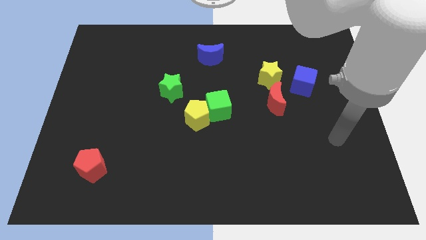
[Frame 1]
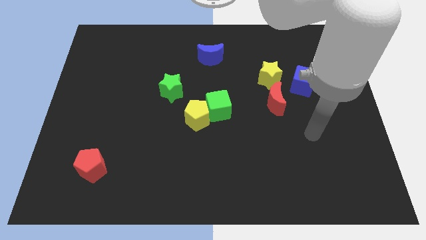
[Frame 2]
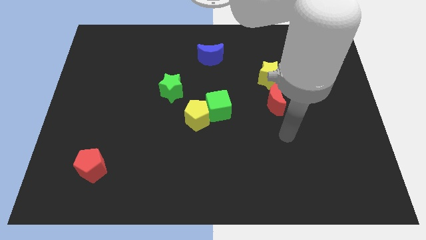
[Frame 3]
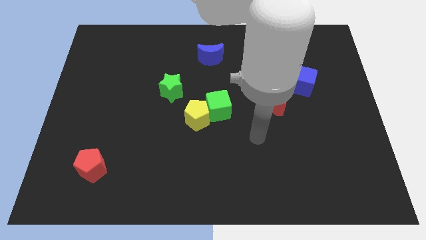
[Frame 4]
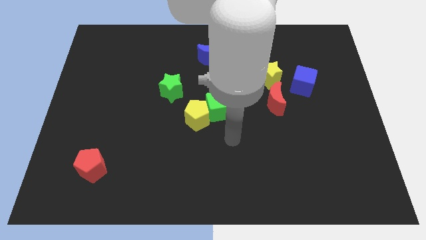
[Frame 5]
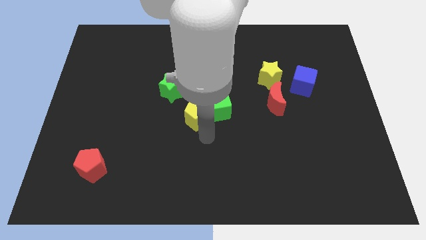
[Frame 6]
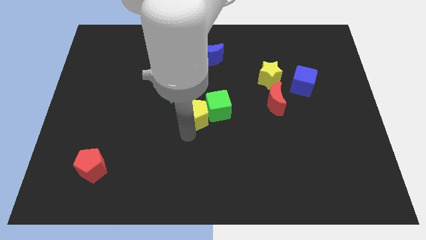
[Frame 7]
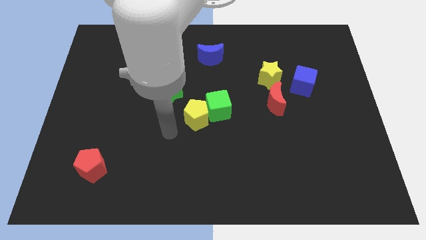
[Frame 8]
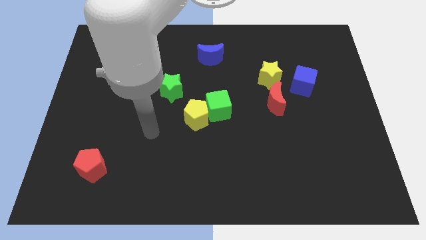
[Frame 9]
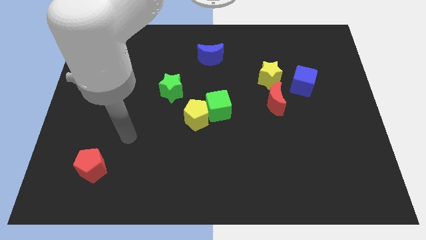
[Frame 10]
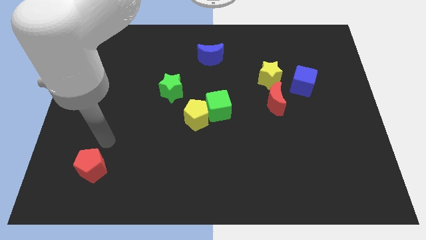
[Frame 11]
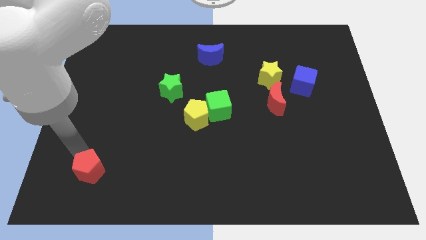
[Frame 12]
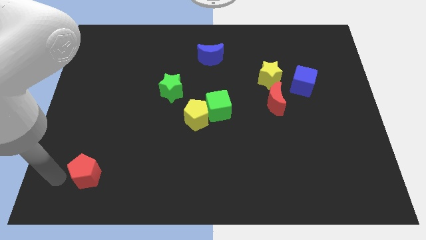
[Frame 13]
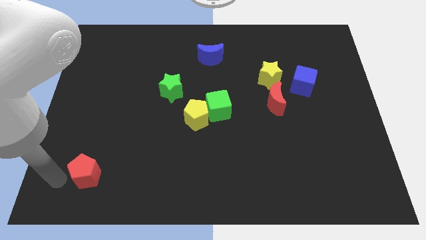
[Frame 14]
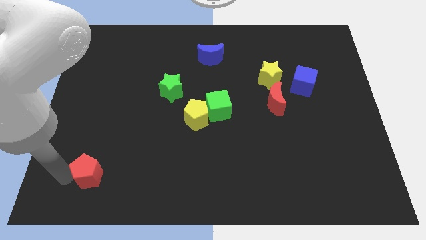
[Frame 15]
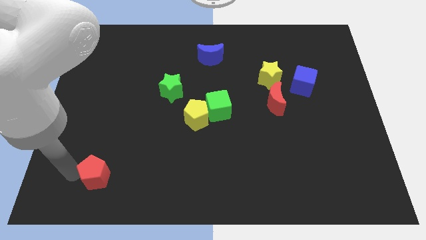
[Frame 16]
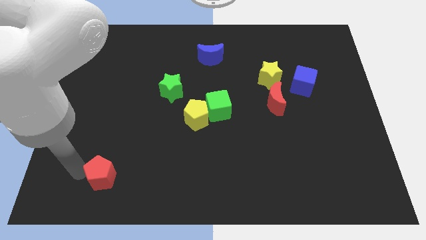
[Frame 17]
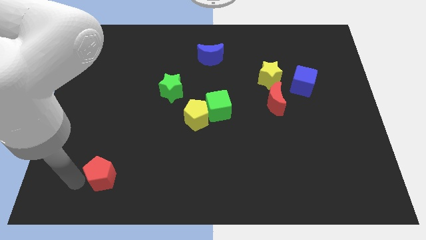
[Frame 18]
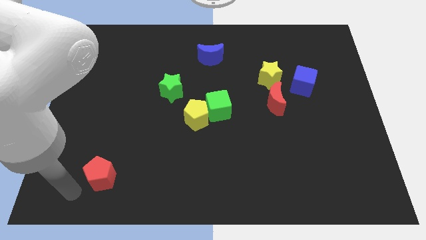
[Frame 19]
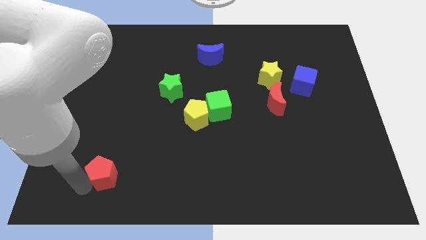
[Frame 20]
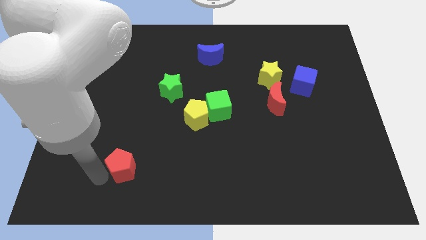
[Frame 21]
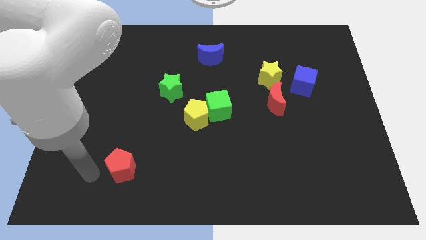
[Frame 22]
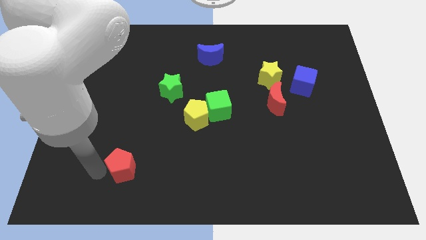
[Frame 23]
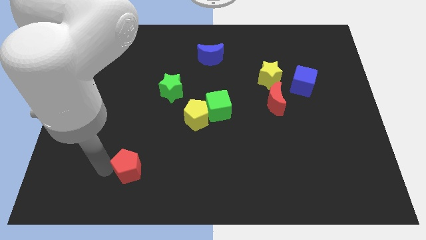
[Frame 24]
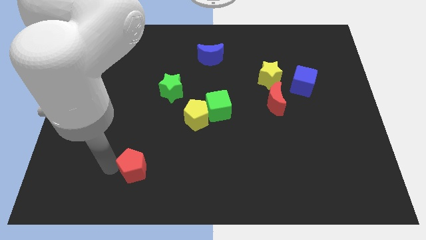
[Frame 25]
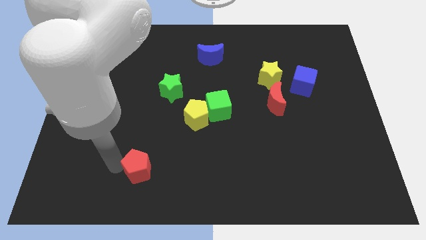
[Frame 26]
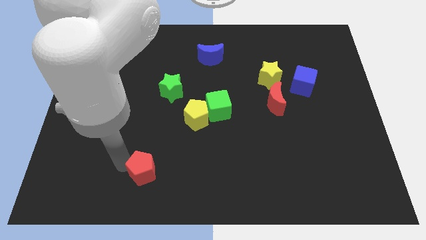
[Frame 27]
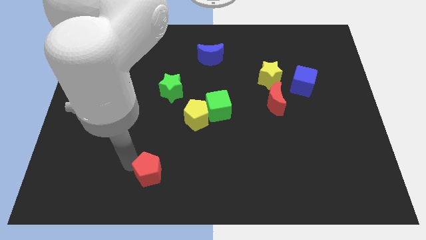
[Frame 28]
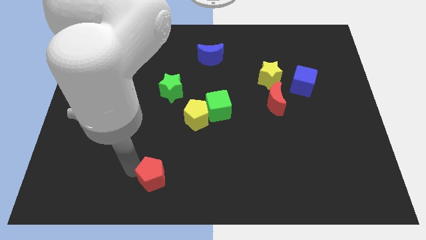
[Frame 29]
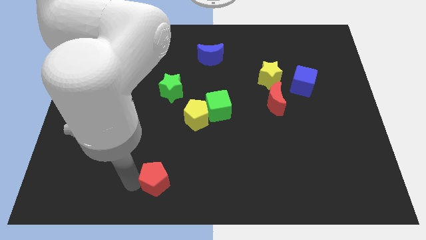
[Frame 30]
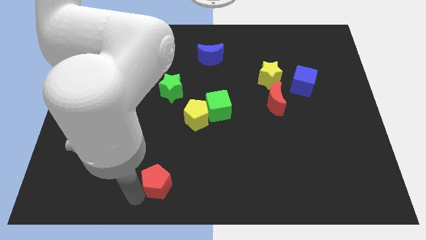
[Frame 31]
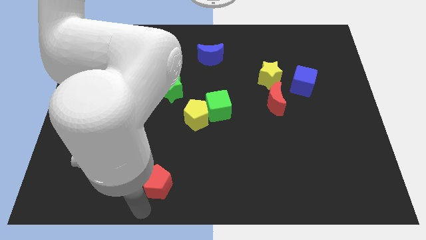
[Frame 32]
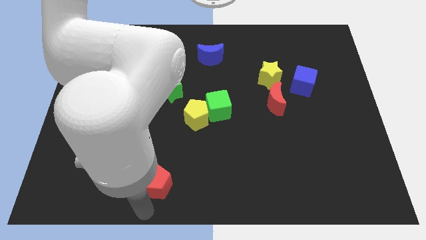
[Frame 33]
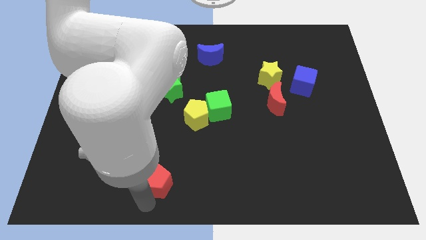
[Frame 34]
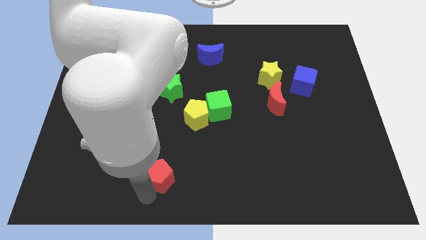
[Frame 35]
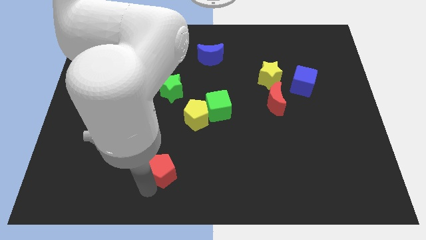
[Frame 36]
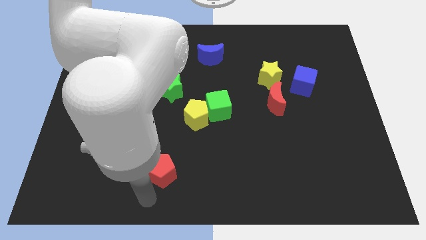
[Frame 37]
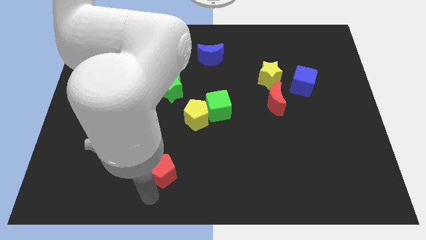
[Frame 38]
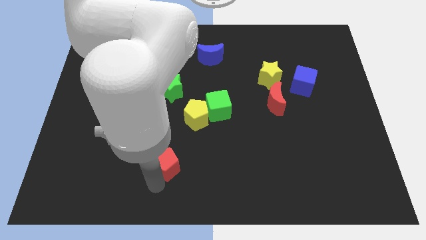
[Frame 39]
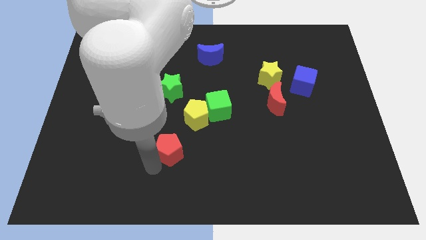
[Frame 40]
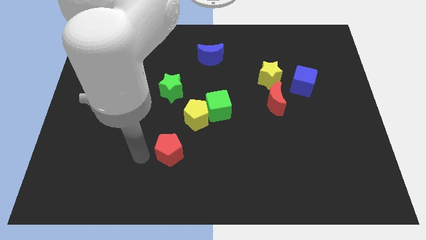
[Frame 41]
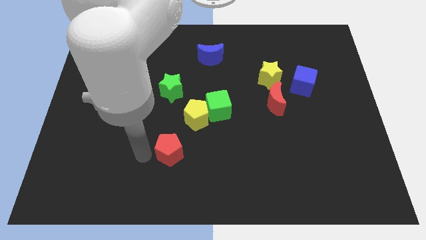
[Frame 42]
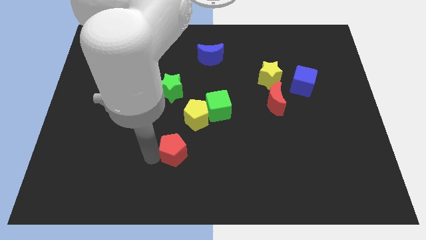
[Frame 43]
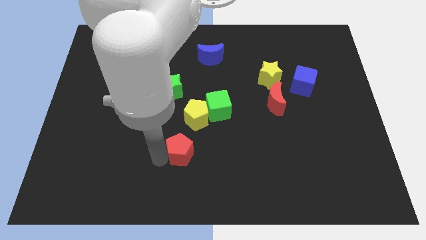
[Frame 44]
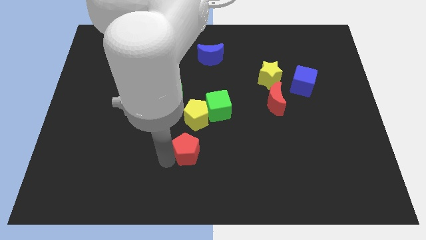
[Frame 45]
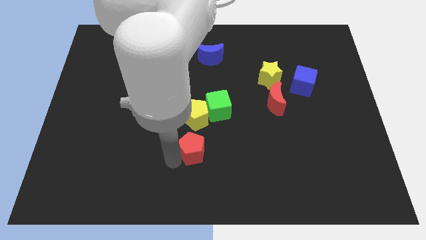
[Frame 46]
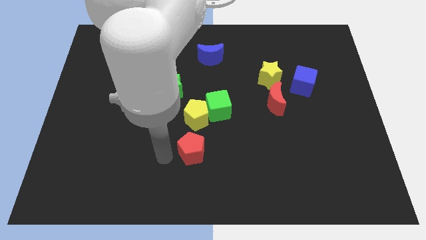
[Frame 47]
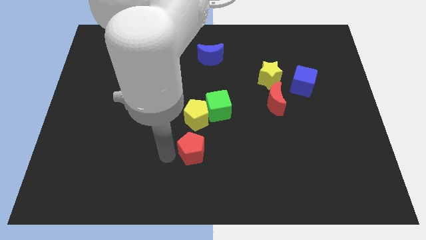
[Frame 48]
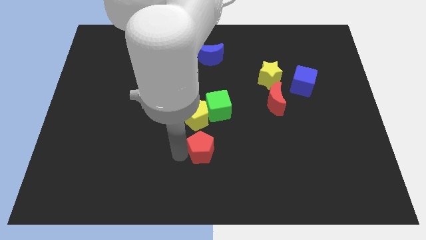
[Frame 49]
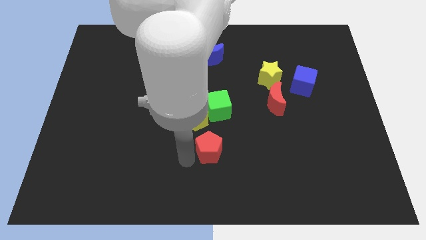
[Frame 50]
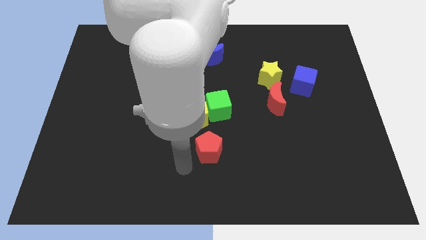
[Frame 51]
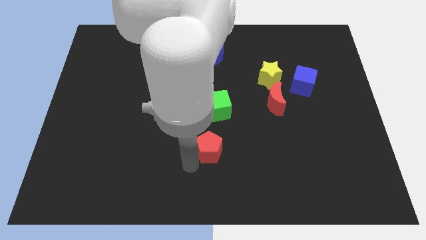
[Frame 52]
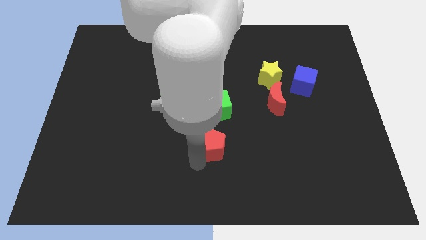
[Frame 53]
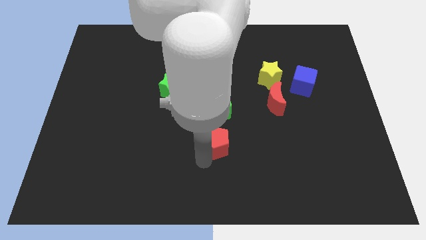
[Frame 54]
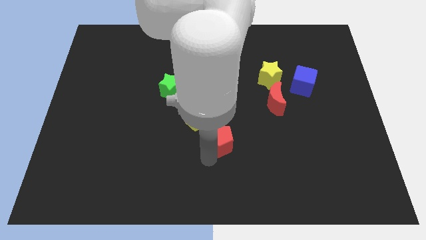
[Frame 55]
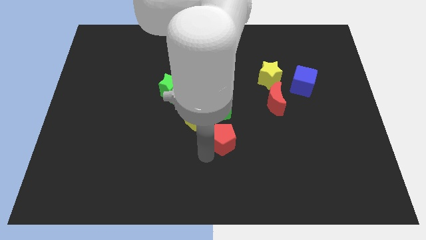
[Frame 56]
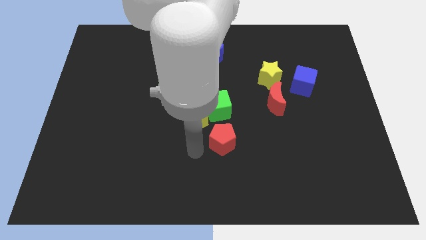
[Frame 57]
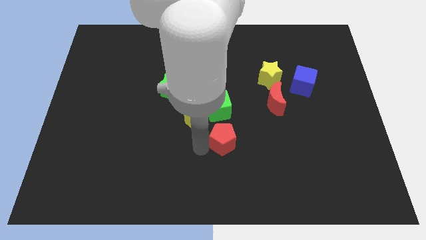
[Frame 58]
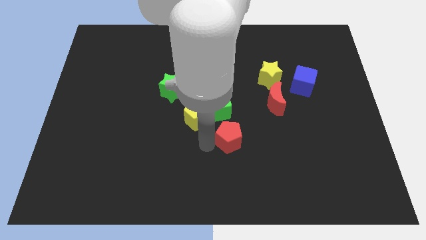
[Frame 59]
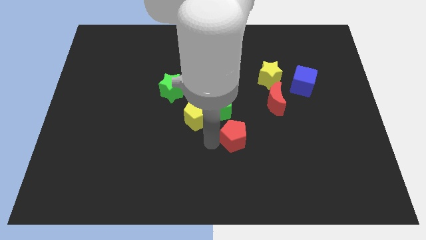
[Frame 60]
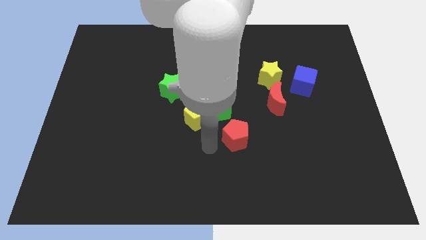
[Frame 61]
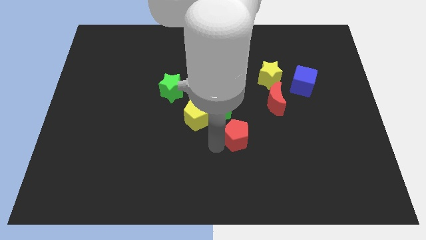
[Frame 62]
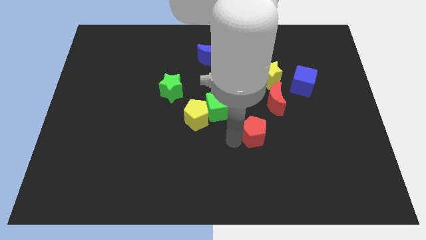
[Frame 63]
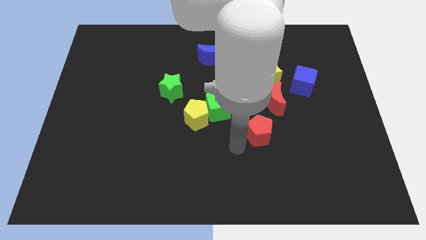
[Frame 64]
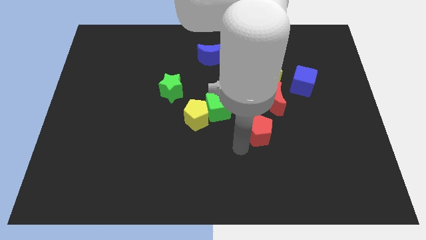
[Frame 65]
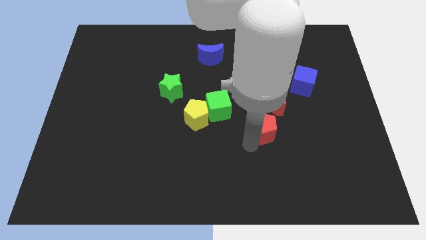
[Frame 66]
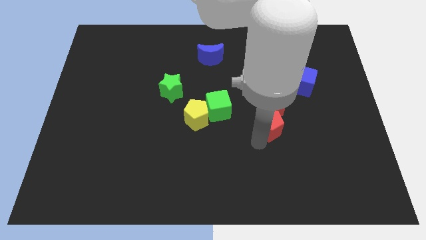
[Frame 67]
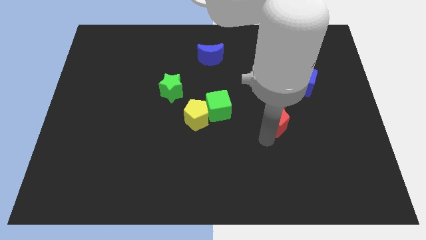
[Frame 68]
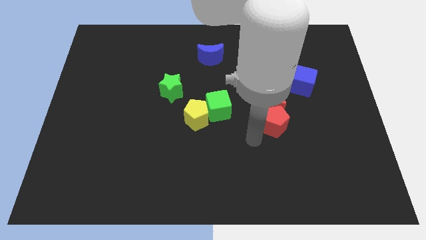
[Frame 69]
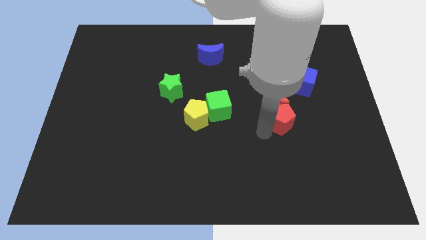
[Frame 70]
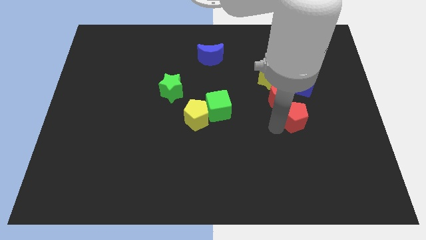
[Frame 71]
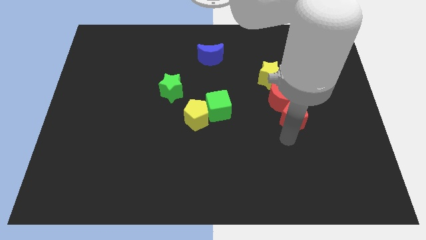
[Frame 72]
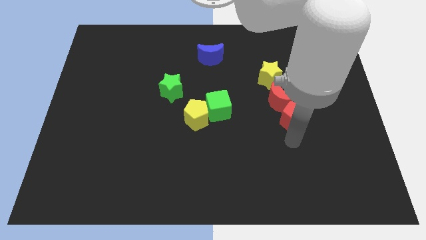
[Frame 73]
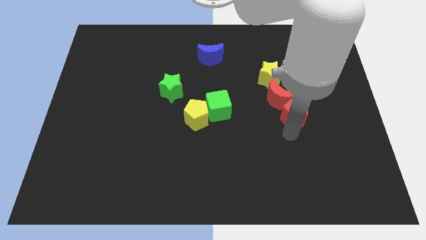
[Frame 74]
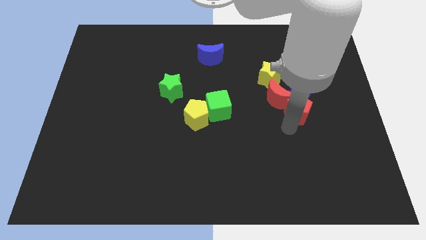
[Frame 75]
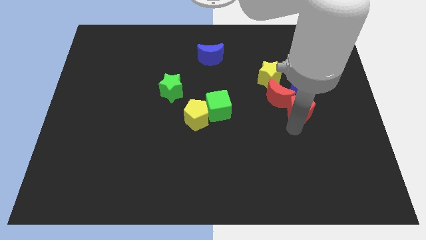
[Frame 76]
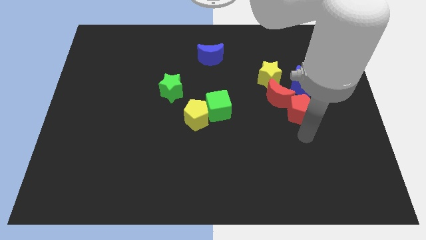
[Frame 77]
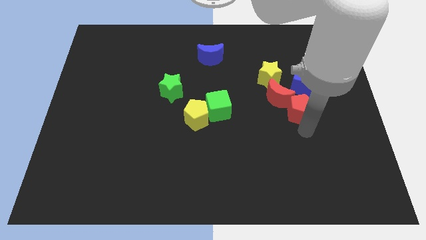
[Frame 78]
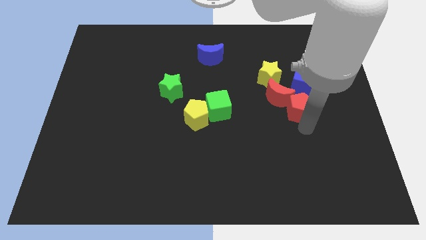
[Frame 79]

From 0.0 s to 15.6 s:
slide the red pentagon to the bottom right side of the yellow star
